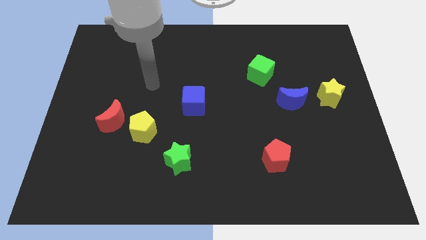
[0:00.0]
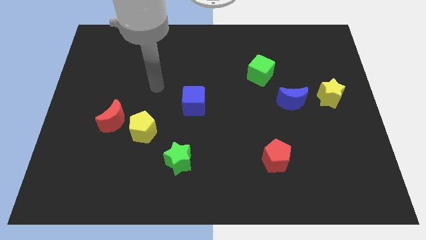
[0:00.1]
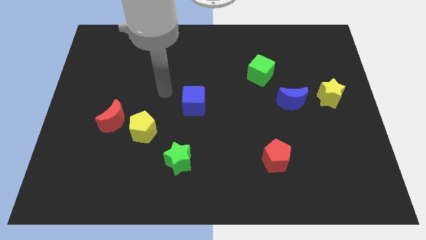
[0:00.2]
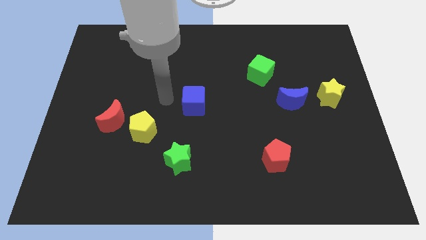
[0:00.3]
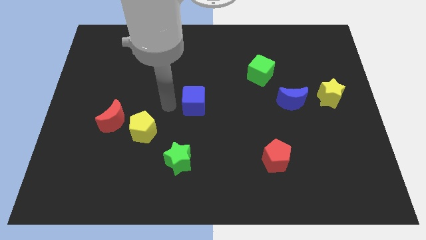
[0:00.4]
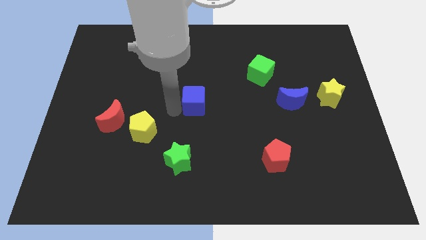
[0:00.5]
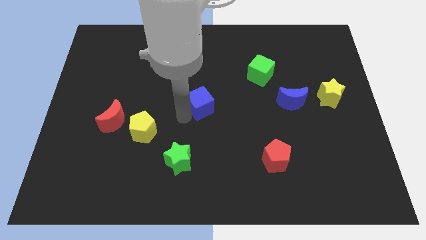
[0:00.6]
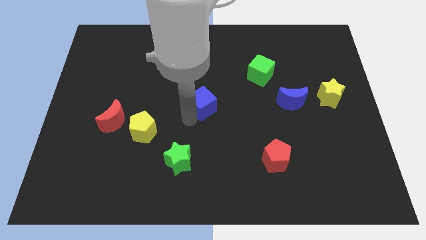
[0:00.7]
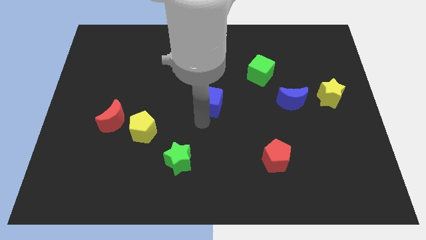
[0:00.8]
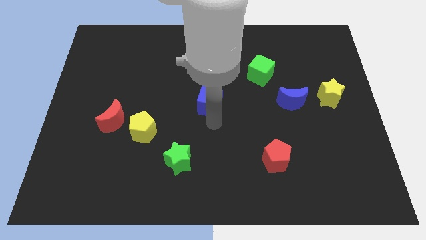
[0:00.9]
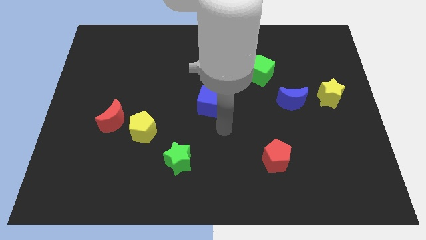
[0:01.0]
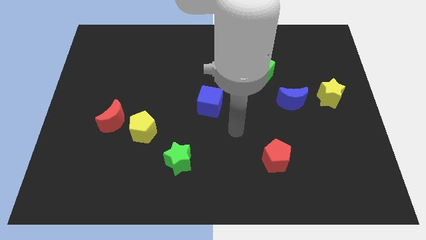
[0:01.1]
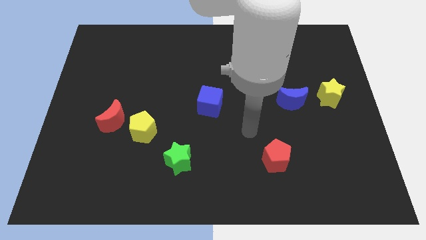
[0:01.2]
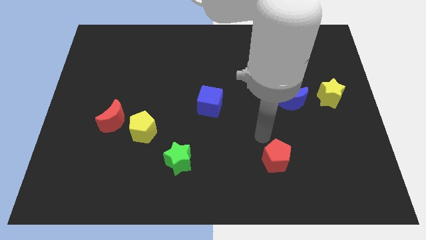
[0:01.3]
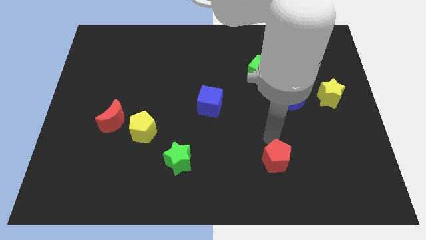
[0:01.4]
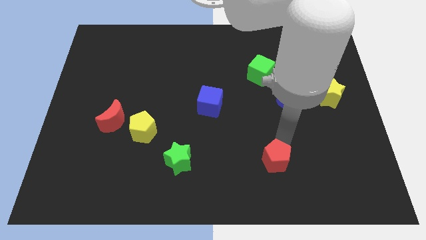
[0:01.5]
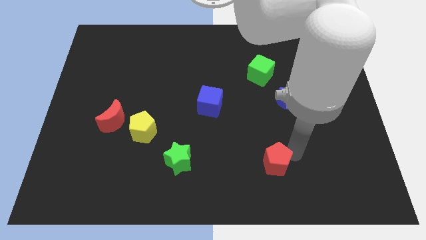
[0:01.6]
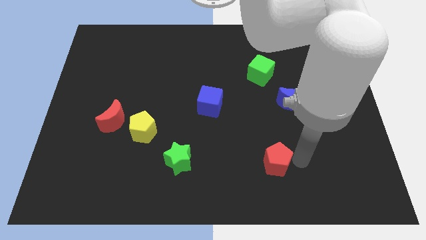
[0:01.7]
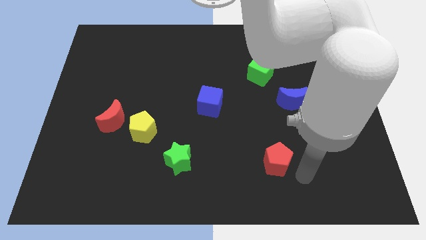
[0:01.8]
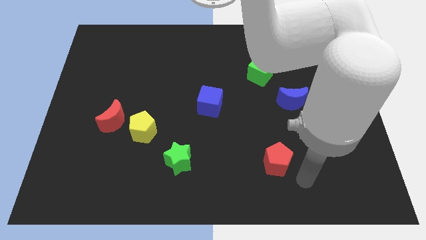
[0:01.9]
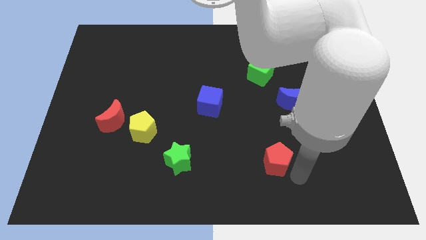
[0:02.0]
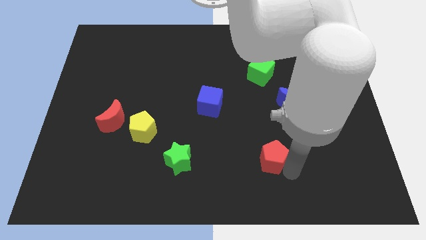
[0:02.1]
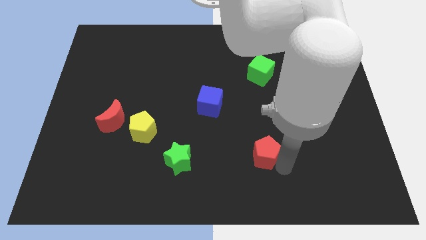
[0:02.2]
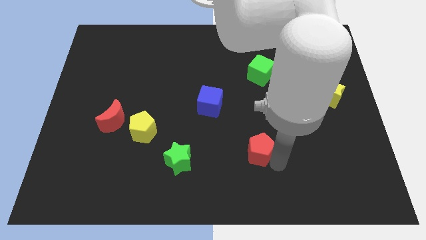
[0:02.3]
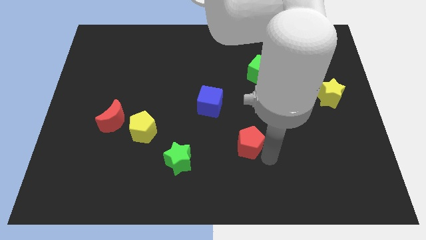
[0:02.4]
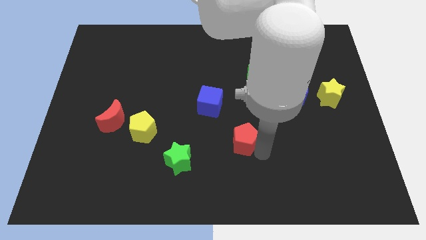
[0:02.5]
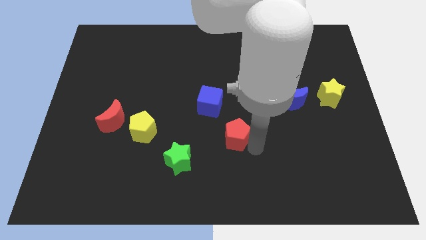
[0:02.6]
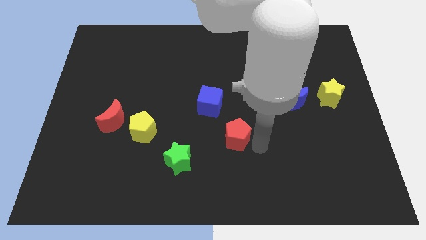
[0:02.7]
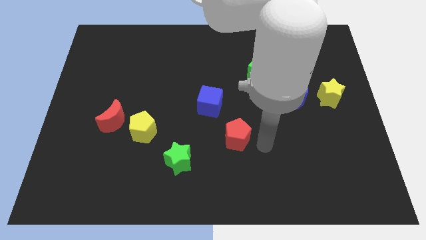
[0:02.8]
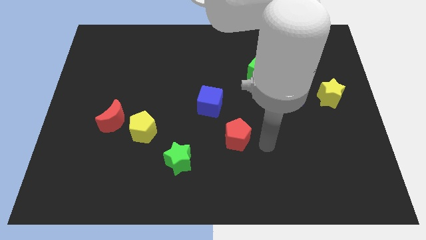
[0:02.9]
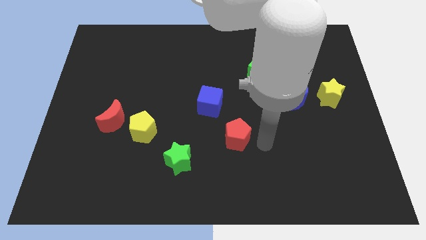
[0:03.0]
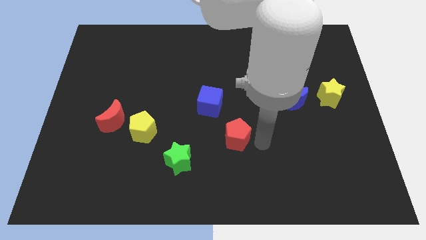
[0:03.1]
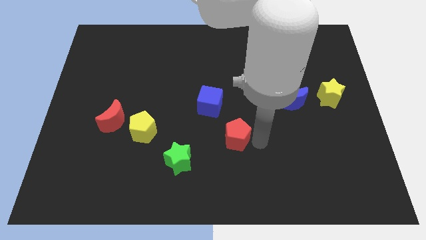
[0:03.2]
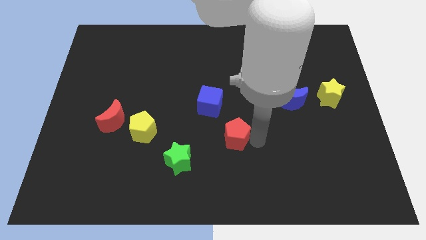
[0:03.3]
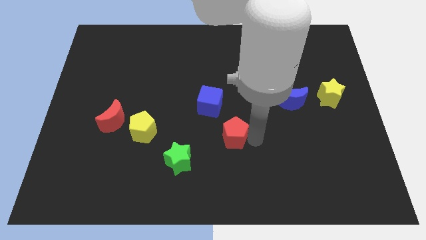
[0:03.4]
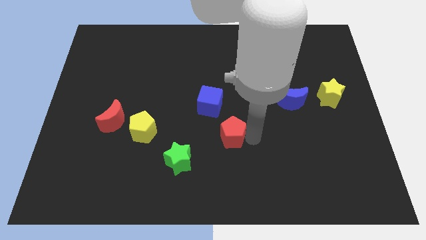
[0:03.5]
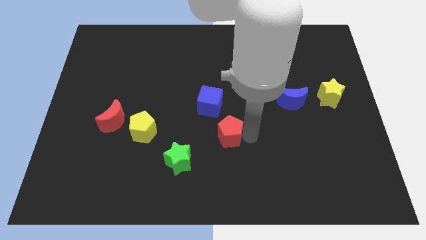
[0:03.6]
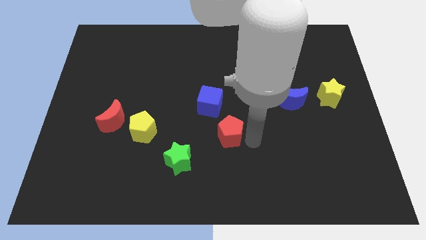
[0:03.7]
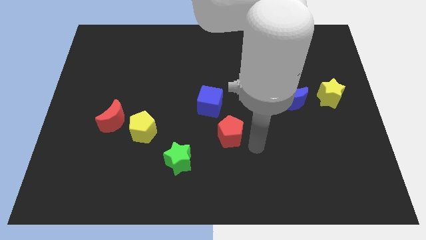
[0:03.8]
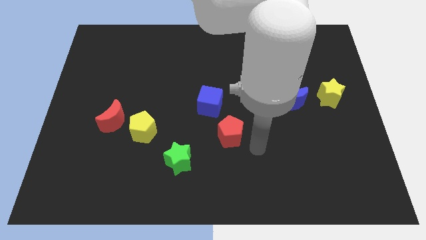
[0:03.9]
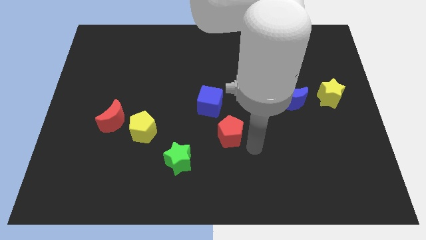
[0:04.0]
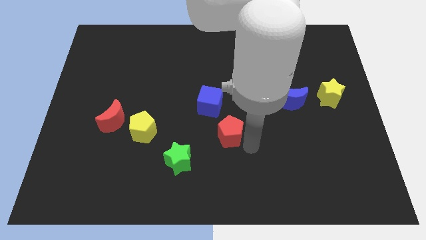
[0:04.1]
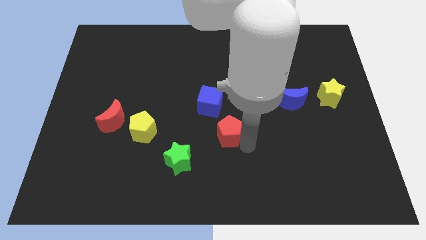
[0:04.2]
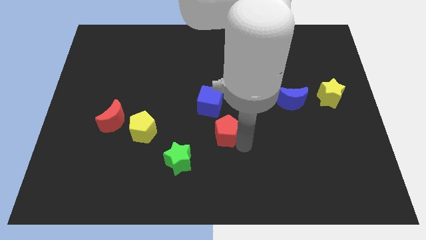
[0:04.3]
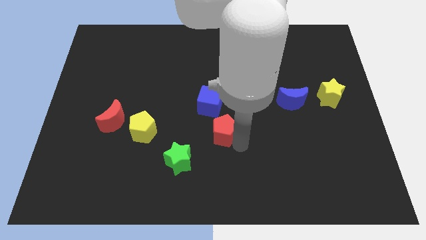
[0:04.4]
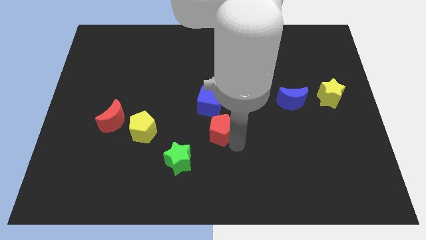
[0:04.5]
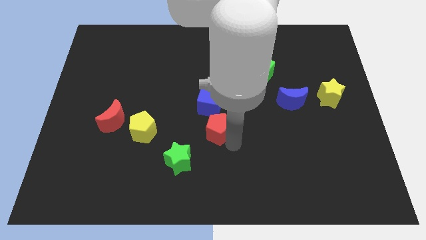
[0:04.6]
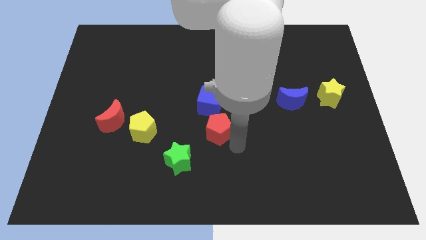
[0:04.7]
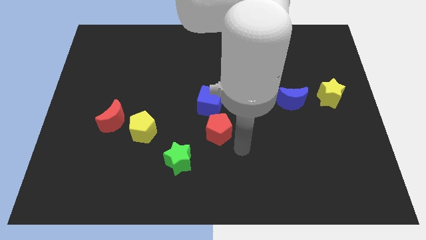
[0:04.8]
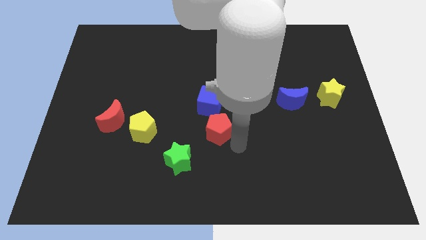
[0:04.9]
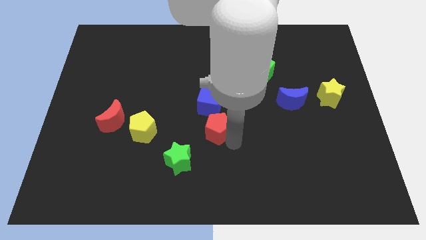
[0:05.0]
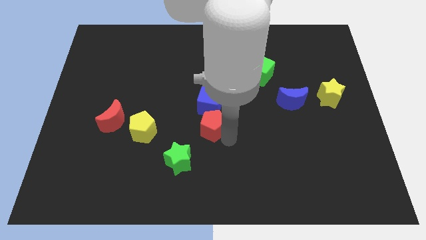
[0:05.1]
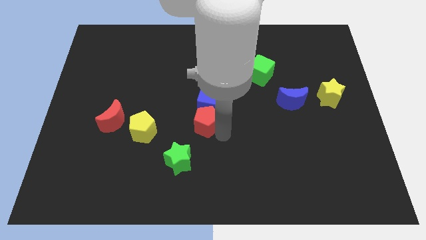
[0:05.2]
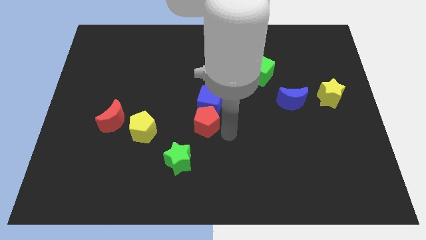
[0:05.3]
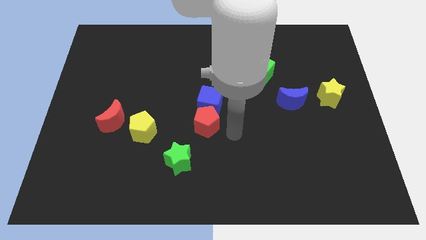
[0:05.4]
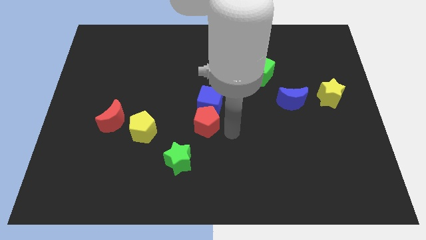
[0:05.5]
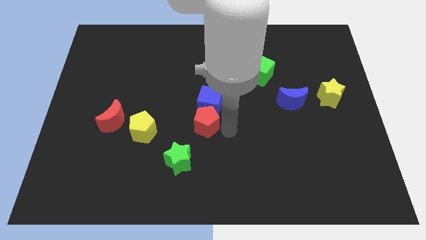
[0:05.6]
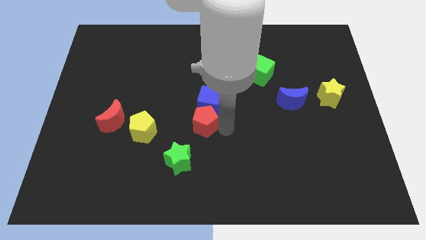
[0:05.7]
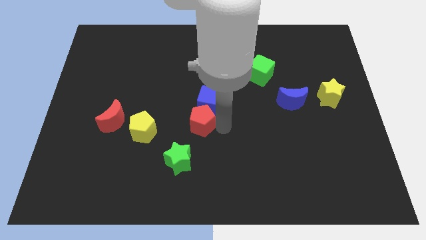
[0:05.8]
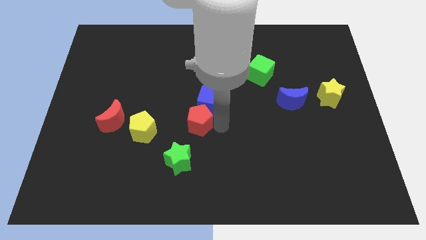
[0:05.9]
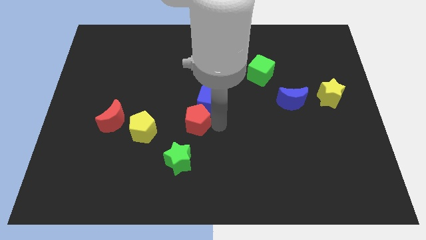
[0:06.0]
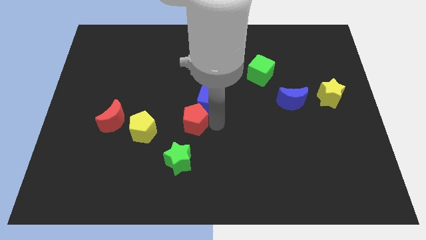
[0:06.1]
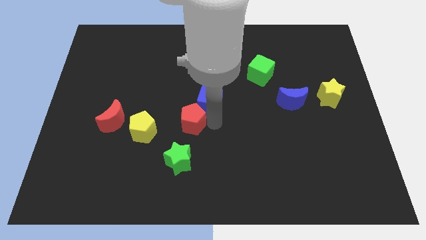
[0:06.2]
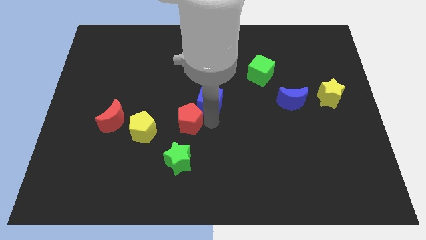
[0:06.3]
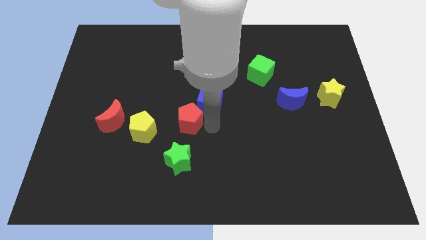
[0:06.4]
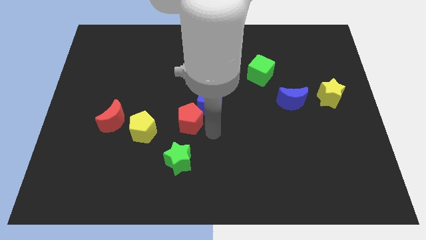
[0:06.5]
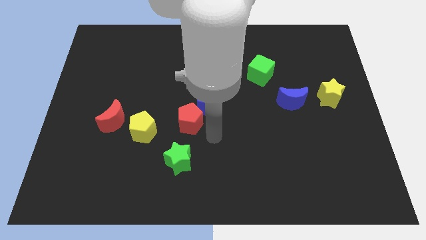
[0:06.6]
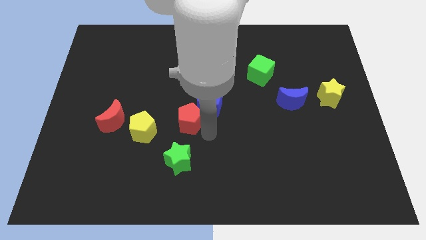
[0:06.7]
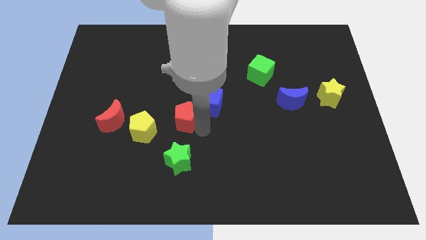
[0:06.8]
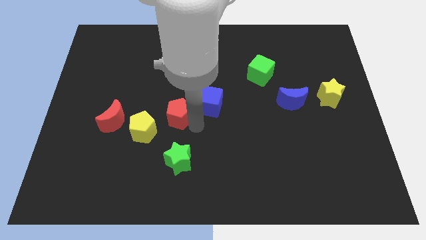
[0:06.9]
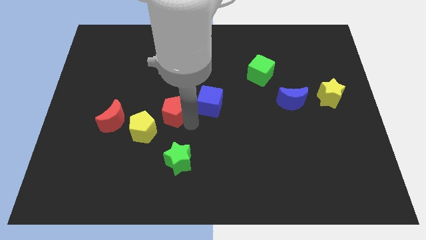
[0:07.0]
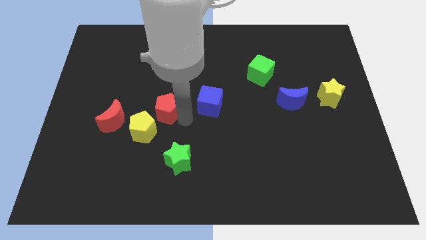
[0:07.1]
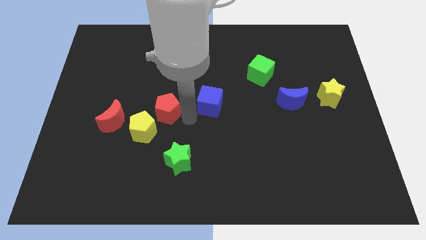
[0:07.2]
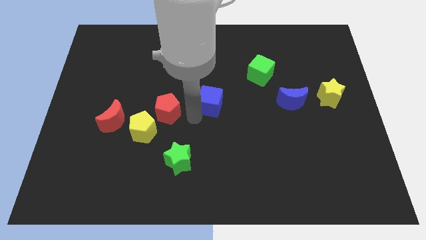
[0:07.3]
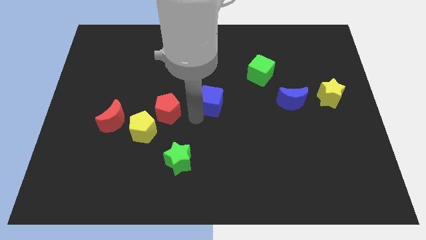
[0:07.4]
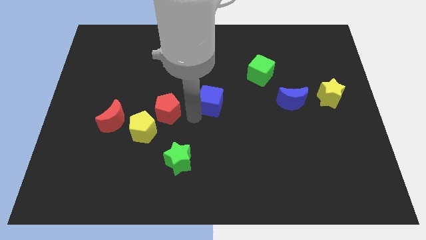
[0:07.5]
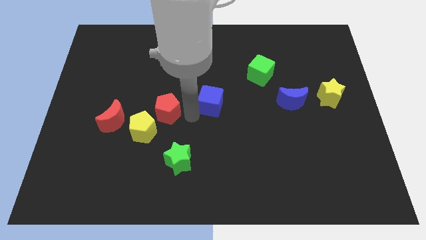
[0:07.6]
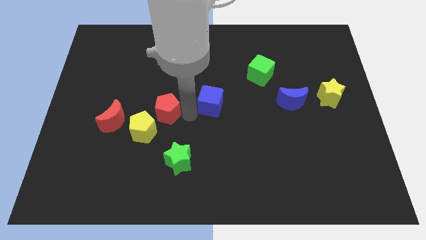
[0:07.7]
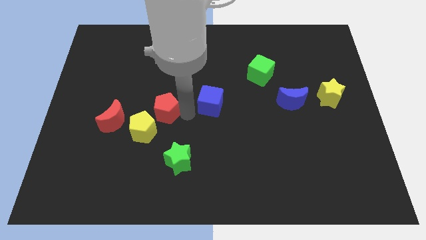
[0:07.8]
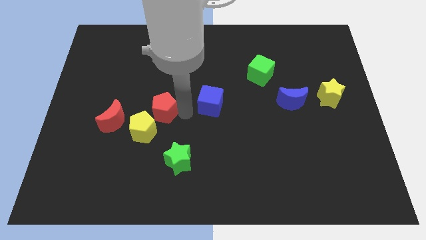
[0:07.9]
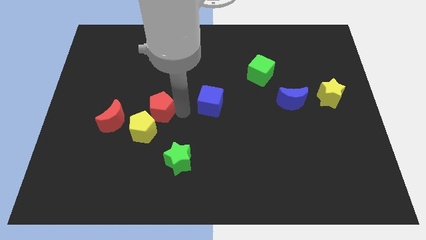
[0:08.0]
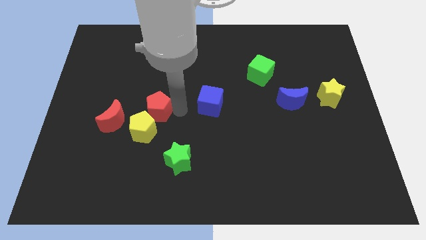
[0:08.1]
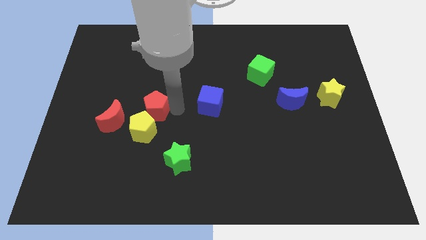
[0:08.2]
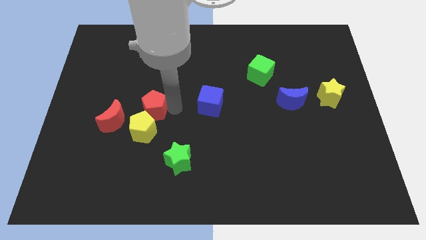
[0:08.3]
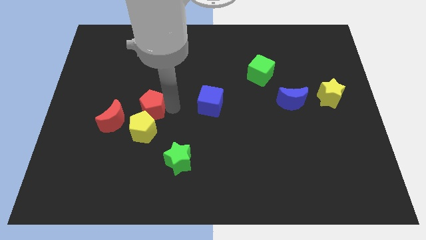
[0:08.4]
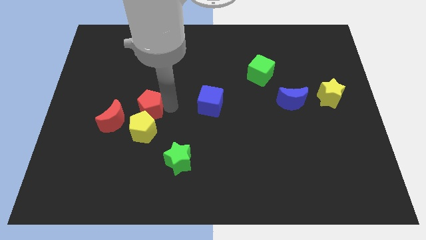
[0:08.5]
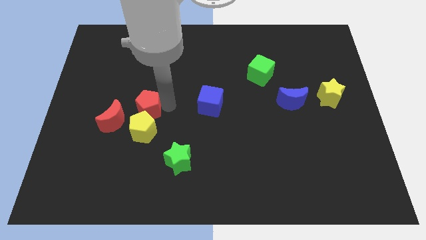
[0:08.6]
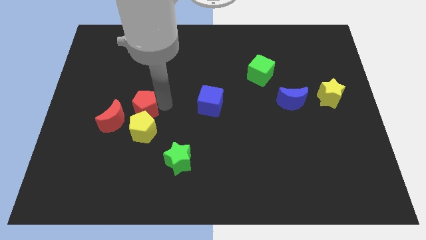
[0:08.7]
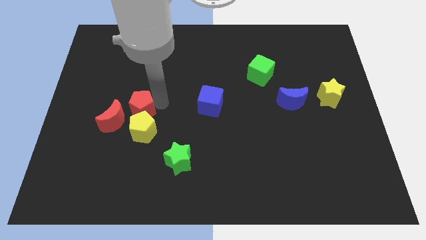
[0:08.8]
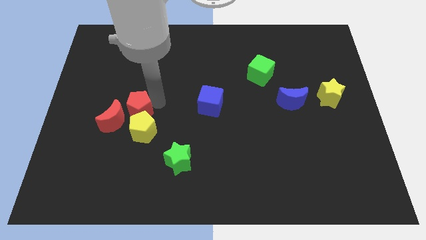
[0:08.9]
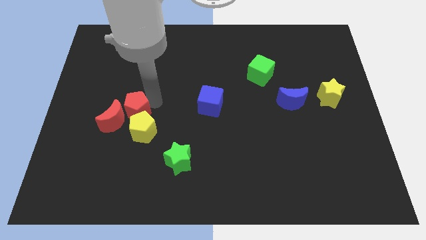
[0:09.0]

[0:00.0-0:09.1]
push the red pentagon to the red moon
